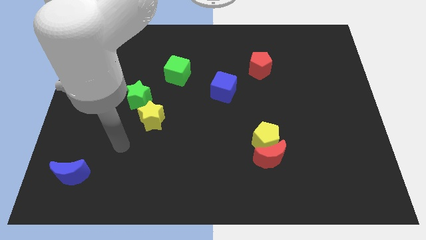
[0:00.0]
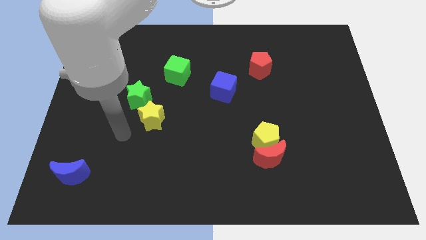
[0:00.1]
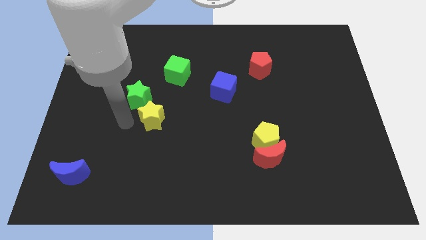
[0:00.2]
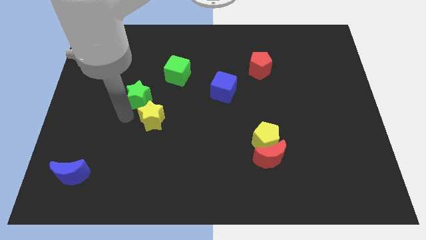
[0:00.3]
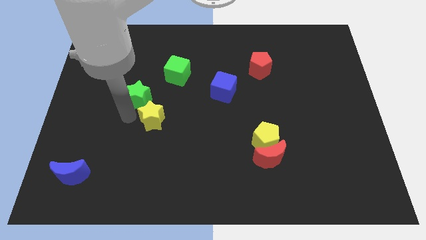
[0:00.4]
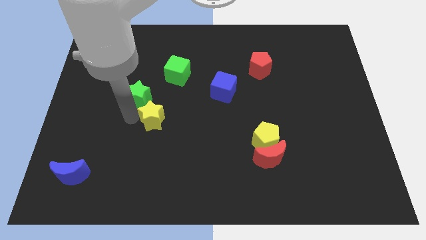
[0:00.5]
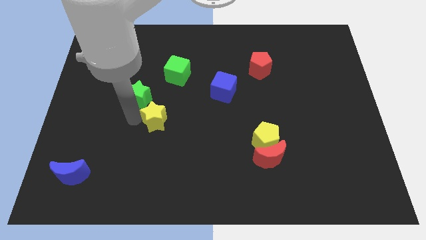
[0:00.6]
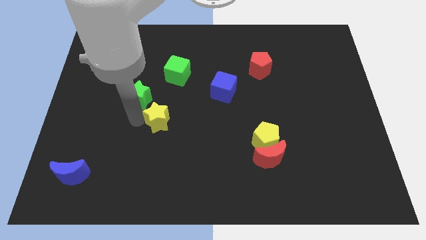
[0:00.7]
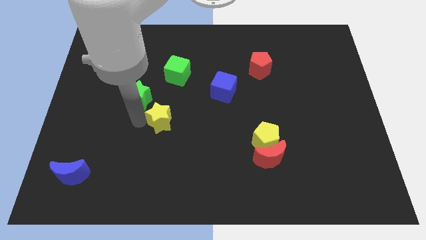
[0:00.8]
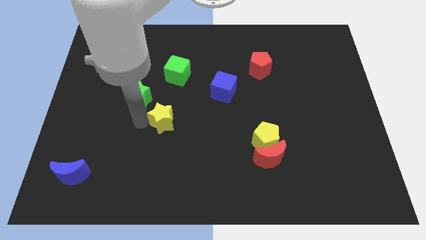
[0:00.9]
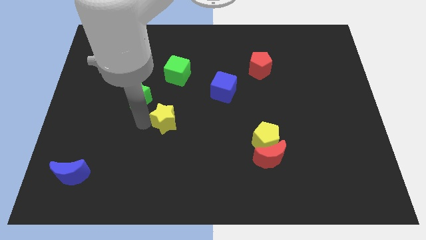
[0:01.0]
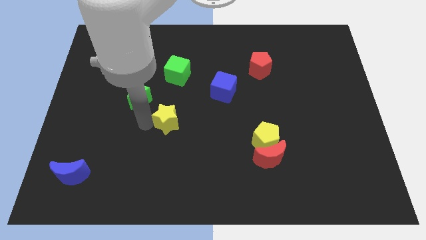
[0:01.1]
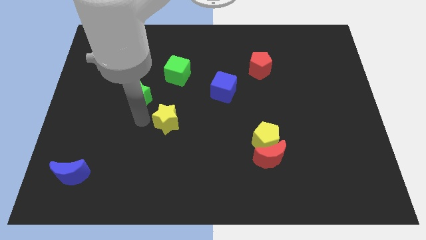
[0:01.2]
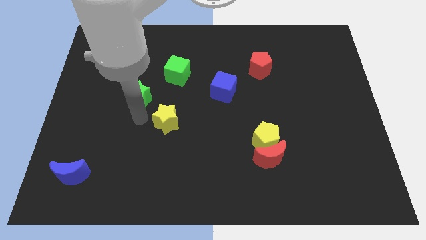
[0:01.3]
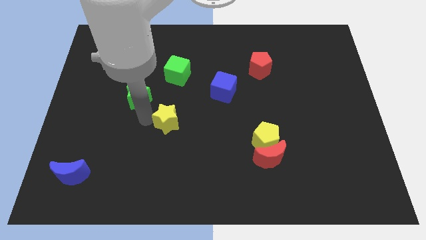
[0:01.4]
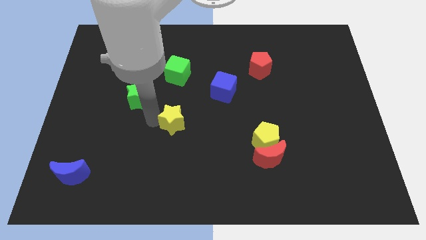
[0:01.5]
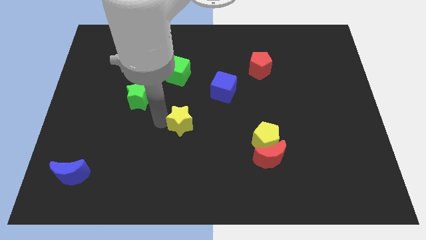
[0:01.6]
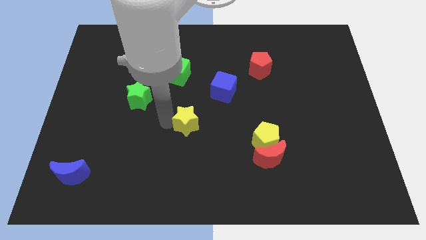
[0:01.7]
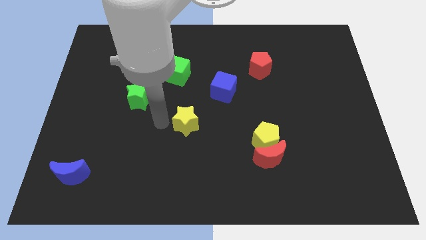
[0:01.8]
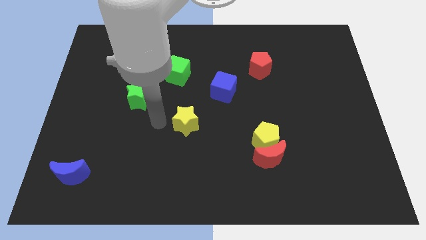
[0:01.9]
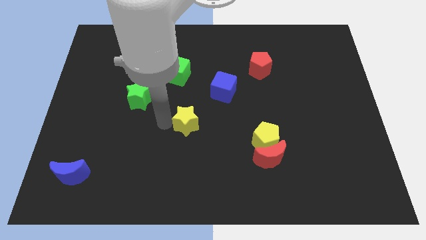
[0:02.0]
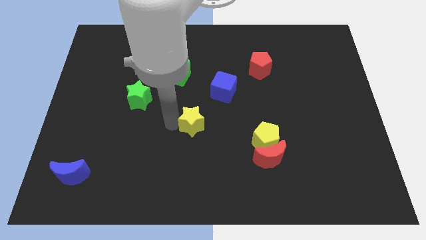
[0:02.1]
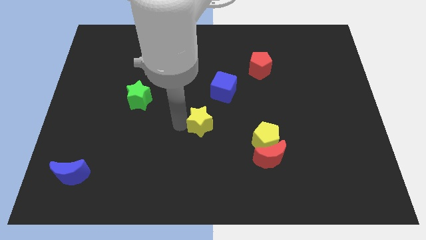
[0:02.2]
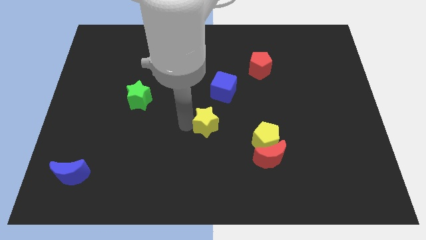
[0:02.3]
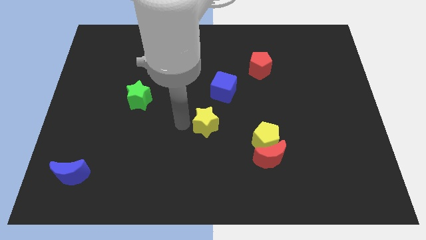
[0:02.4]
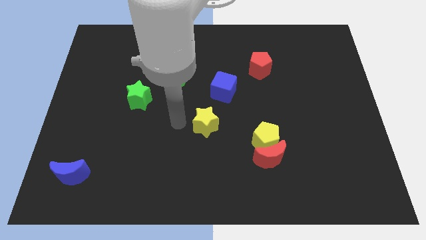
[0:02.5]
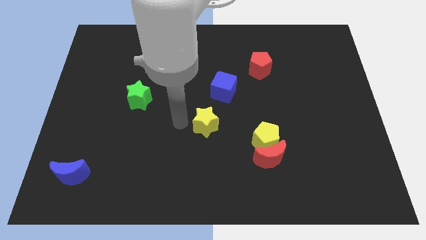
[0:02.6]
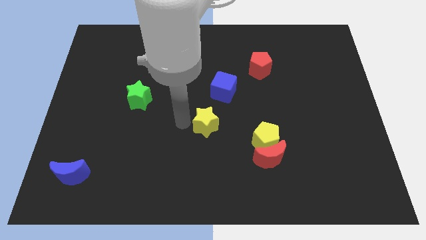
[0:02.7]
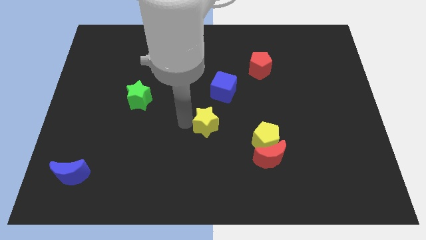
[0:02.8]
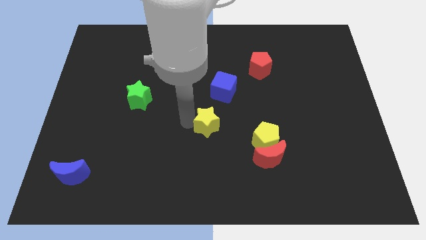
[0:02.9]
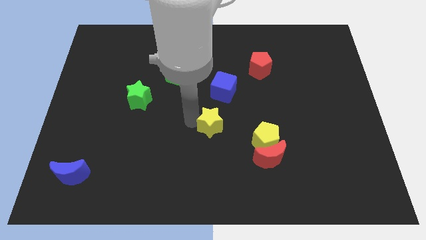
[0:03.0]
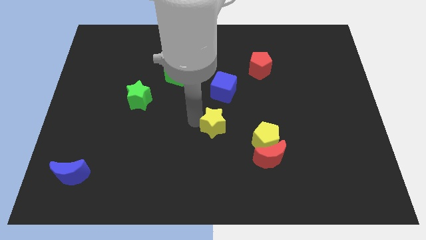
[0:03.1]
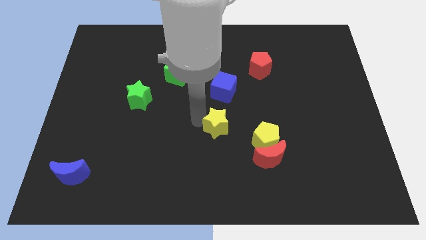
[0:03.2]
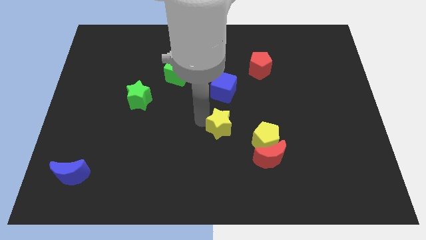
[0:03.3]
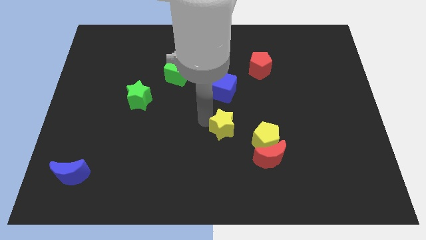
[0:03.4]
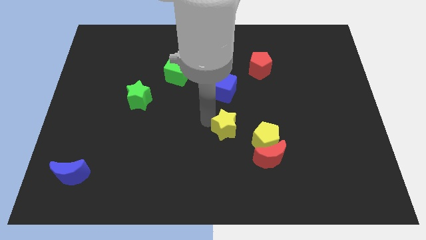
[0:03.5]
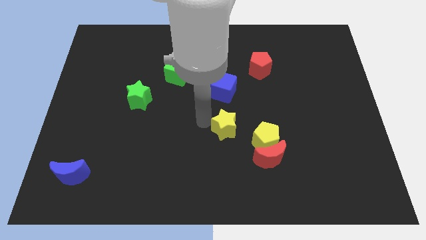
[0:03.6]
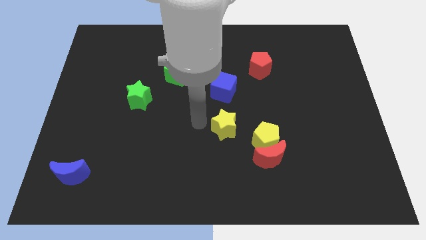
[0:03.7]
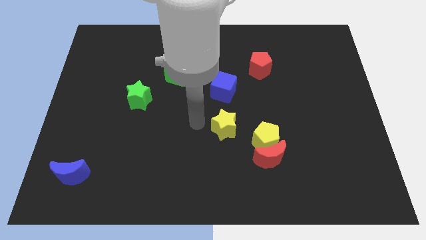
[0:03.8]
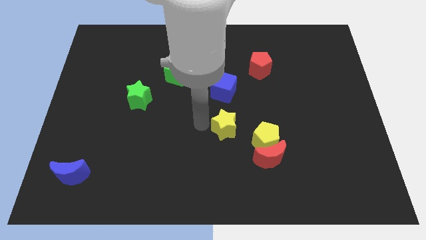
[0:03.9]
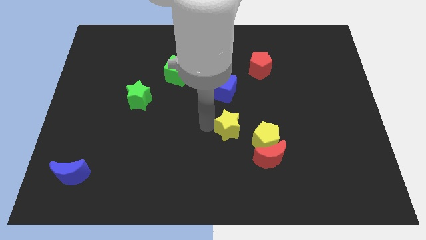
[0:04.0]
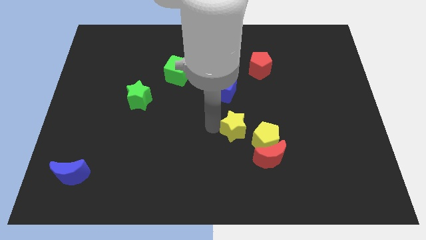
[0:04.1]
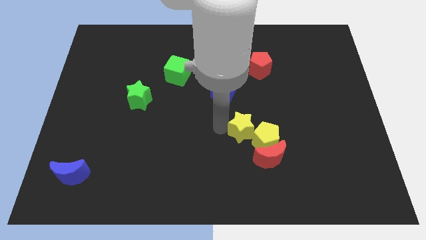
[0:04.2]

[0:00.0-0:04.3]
slide the yellow star towards the yellow pentagon

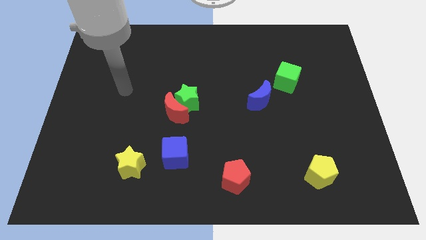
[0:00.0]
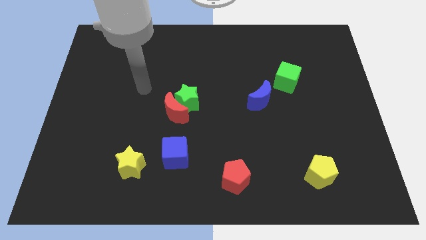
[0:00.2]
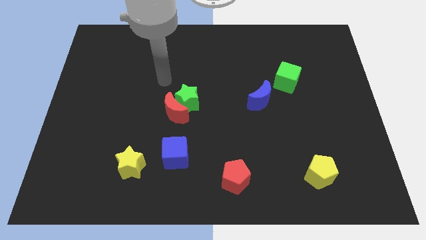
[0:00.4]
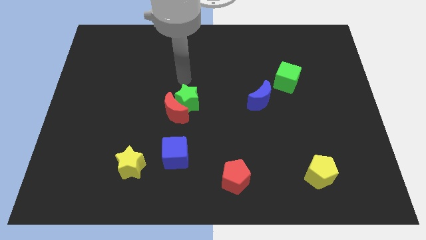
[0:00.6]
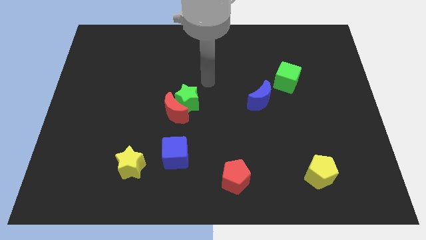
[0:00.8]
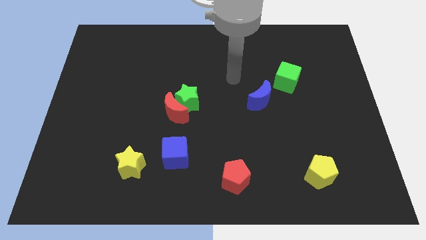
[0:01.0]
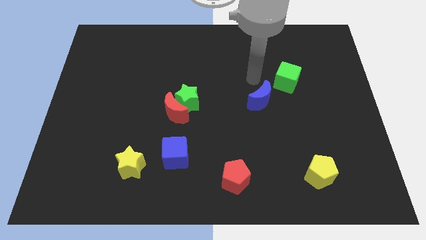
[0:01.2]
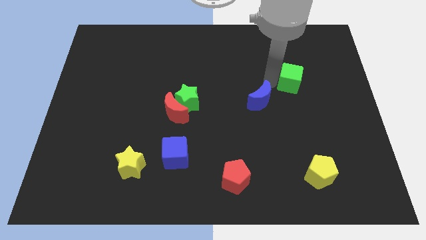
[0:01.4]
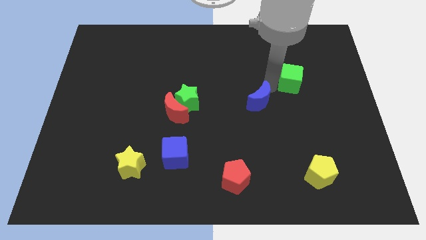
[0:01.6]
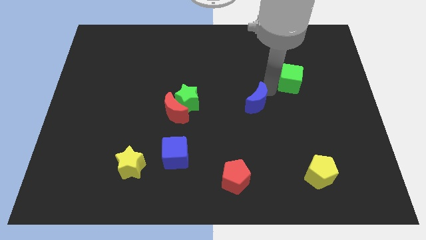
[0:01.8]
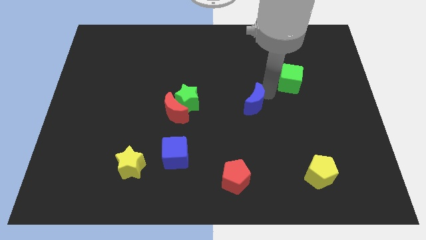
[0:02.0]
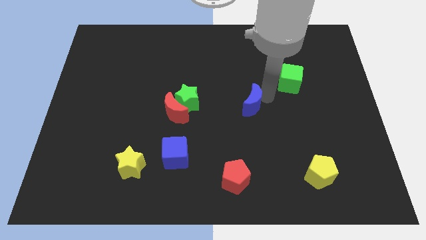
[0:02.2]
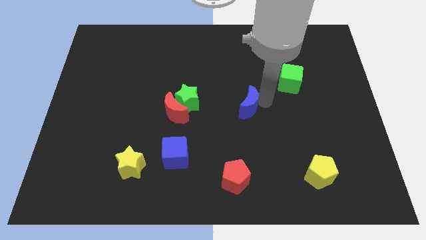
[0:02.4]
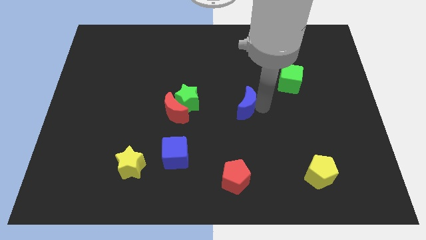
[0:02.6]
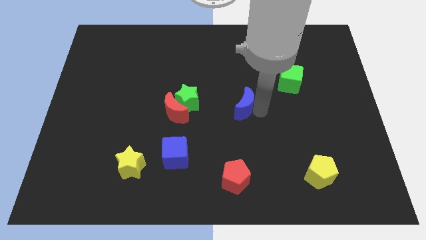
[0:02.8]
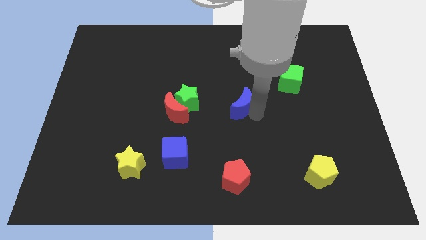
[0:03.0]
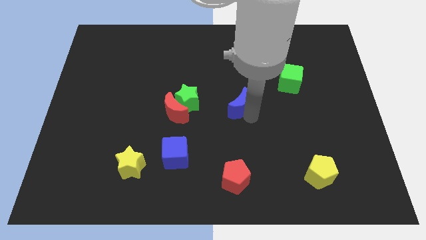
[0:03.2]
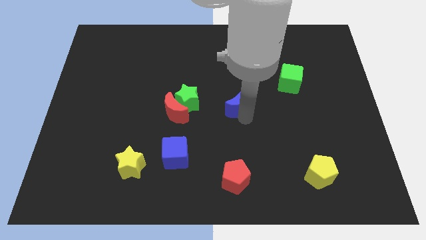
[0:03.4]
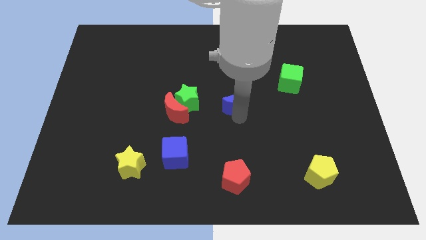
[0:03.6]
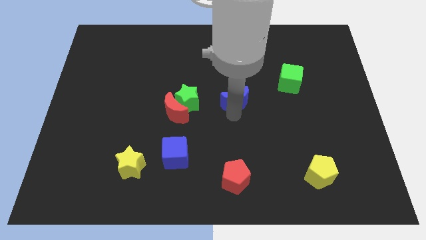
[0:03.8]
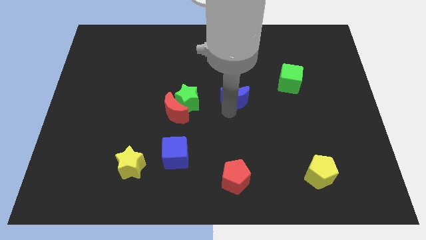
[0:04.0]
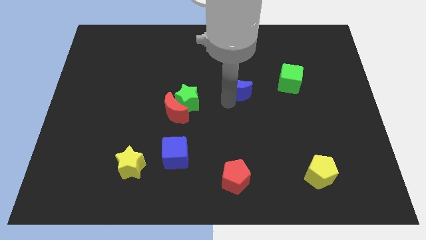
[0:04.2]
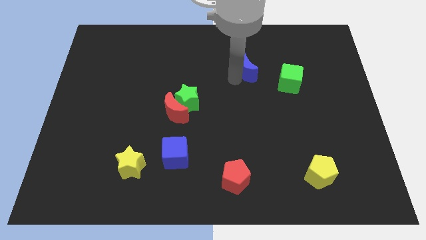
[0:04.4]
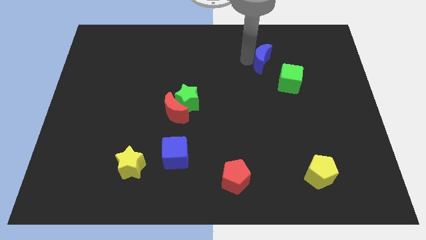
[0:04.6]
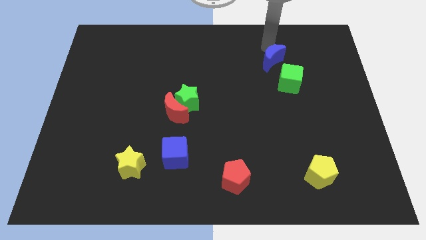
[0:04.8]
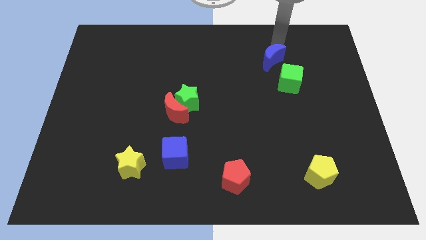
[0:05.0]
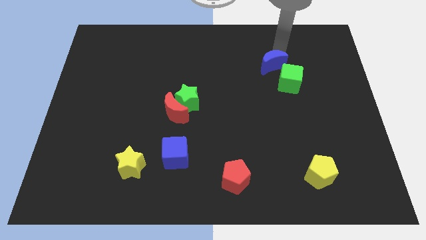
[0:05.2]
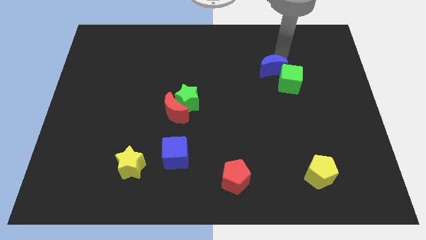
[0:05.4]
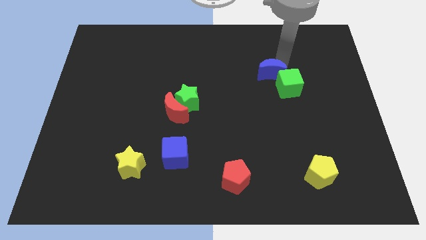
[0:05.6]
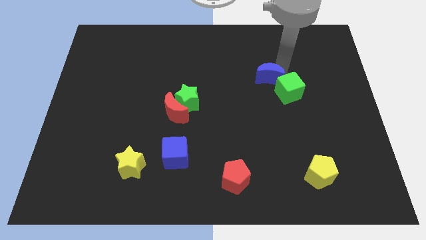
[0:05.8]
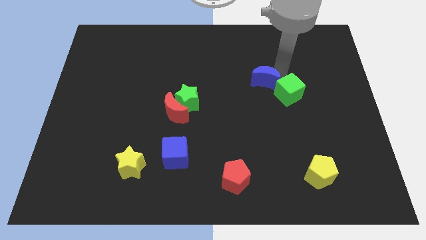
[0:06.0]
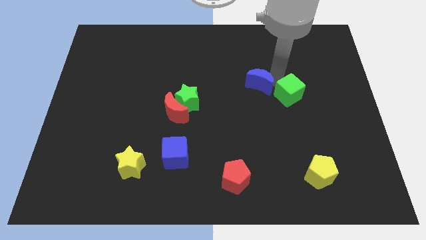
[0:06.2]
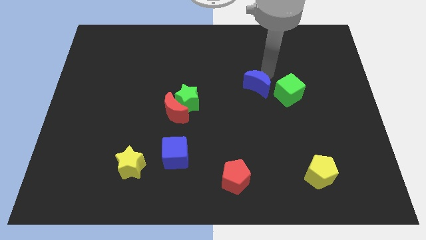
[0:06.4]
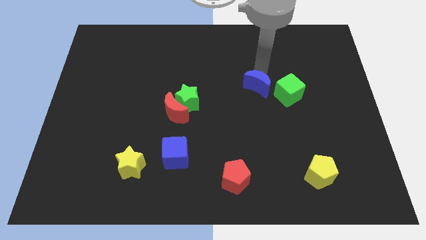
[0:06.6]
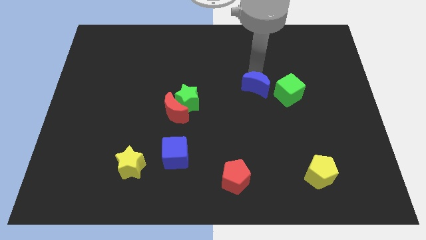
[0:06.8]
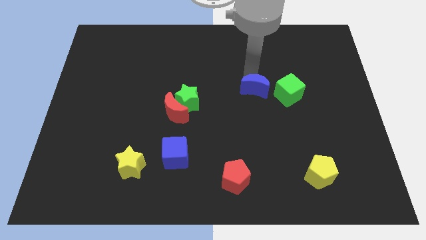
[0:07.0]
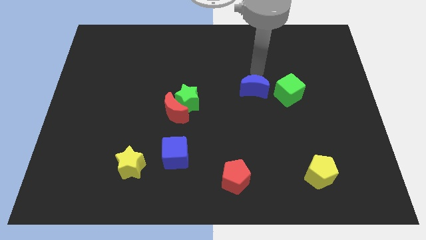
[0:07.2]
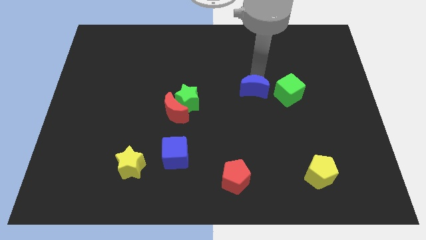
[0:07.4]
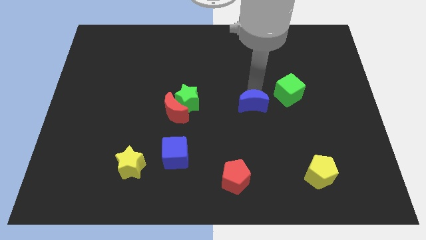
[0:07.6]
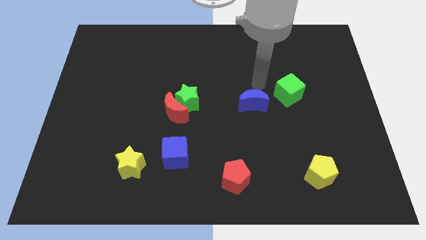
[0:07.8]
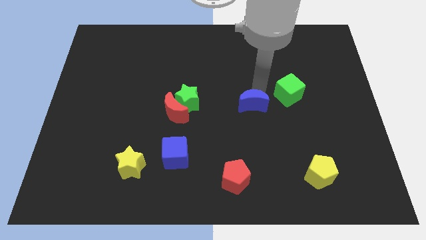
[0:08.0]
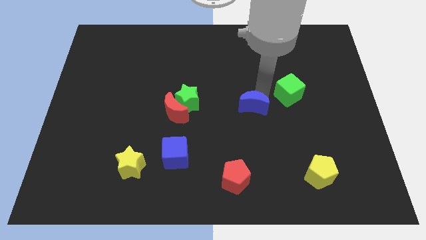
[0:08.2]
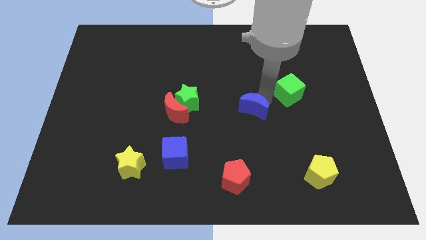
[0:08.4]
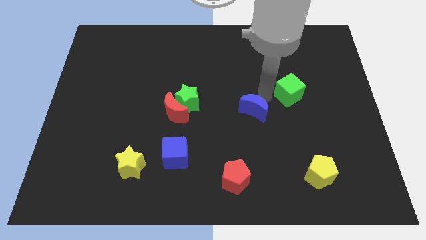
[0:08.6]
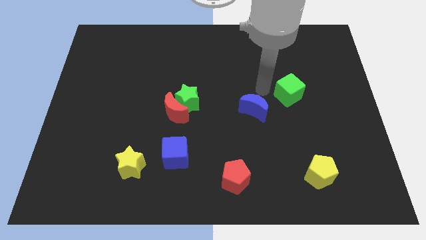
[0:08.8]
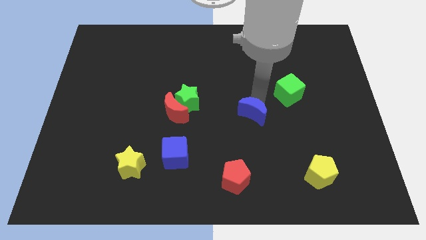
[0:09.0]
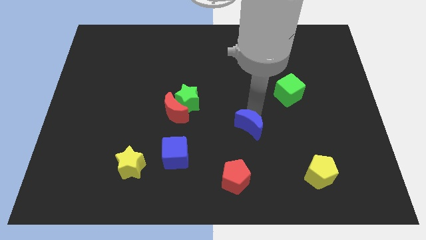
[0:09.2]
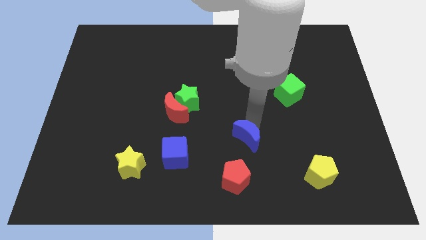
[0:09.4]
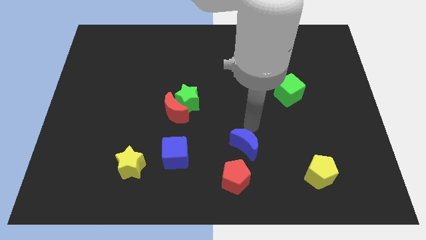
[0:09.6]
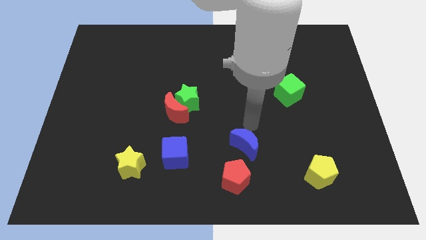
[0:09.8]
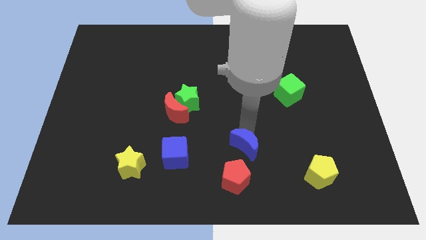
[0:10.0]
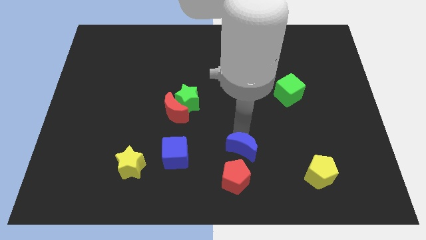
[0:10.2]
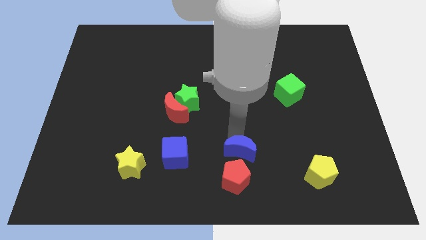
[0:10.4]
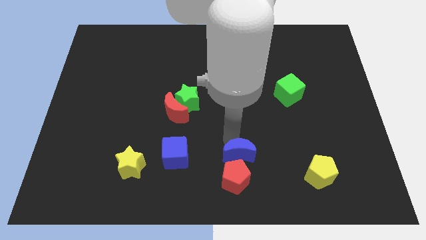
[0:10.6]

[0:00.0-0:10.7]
slide the blue moon next to the red pentagon
